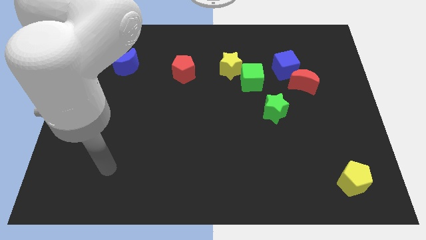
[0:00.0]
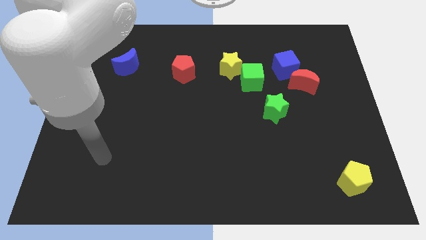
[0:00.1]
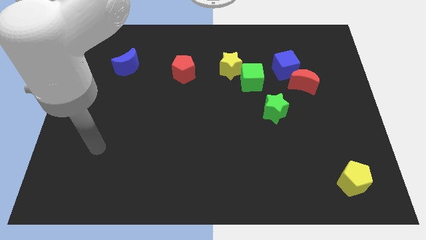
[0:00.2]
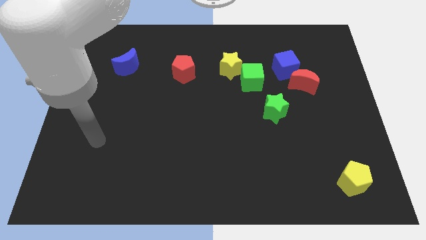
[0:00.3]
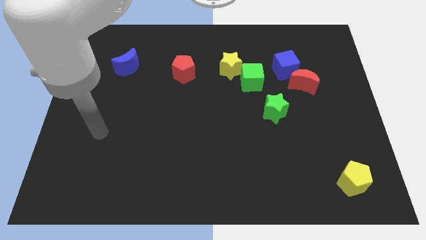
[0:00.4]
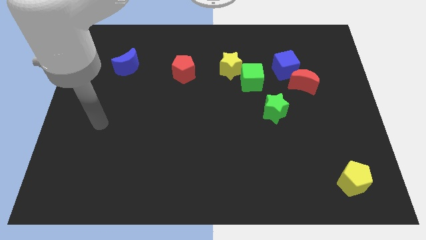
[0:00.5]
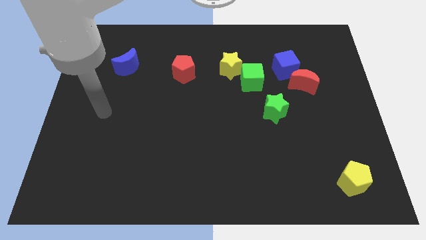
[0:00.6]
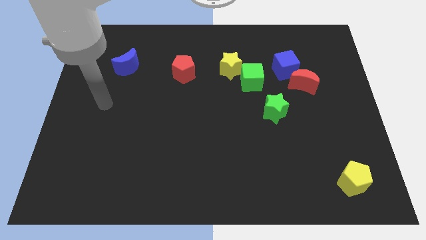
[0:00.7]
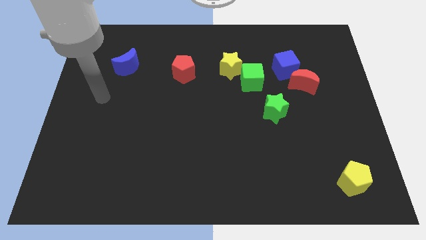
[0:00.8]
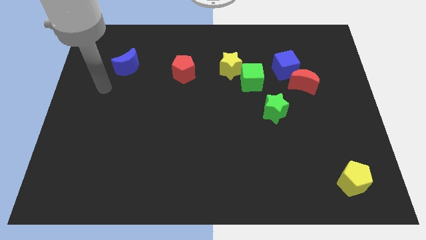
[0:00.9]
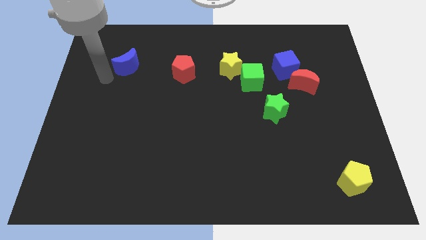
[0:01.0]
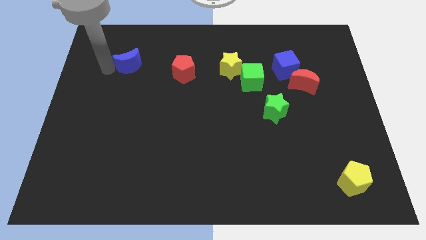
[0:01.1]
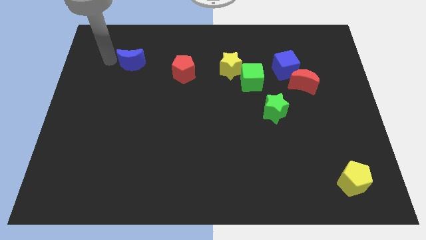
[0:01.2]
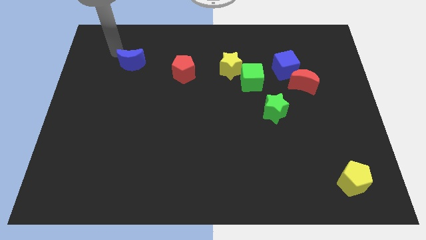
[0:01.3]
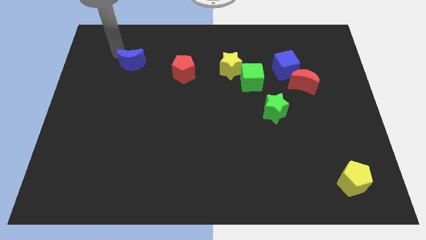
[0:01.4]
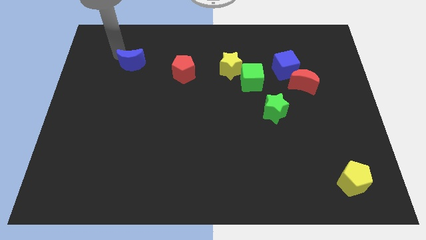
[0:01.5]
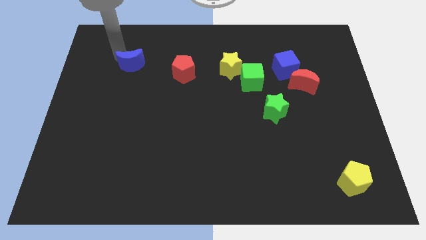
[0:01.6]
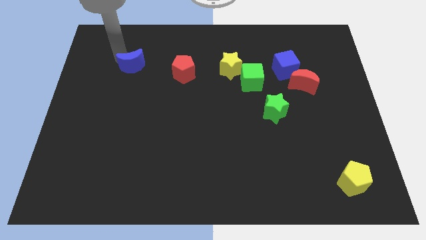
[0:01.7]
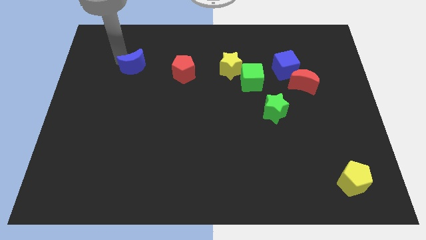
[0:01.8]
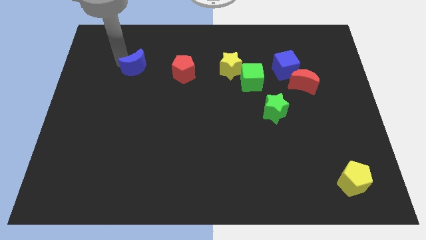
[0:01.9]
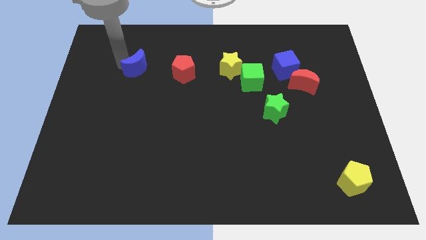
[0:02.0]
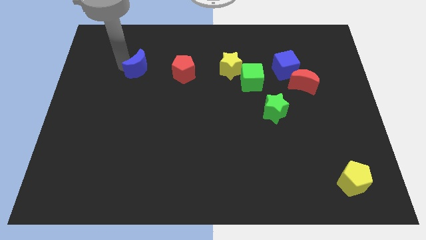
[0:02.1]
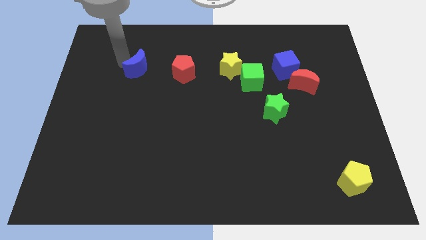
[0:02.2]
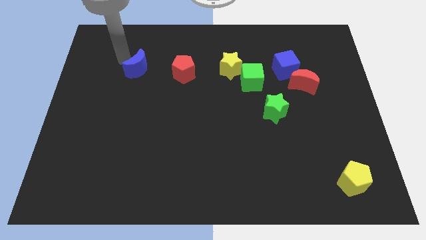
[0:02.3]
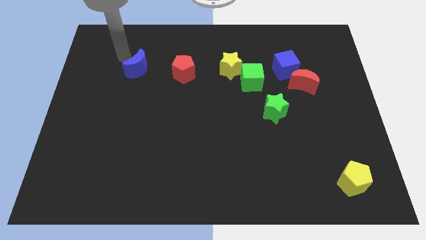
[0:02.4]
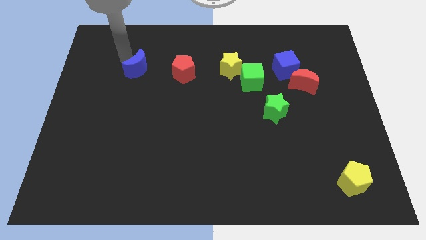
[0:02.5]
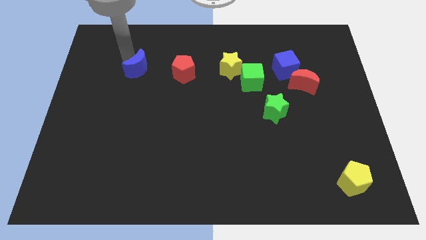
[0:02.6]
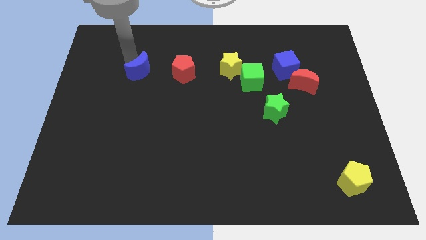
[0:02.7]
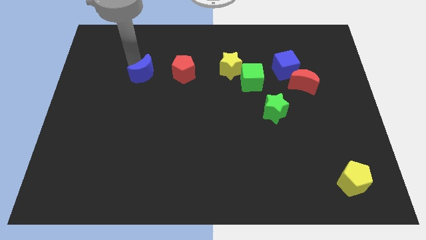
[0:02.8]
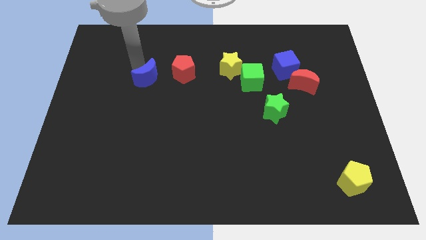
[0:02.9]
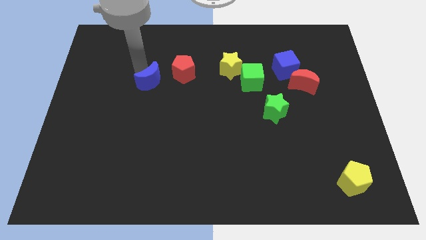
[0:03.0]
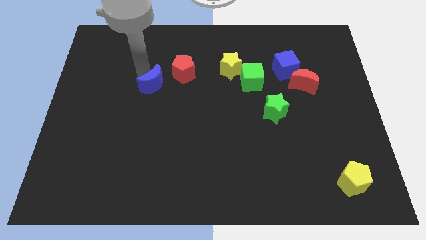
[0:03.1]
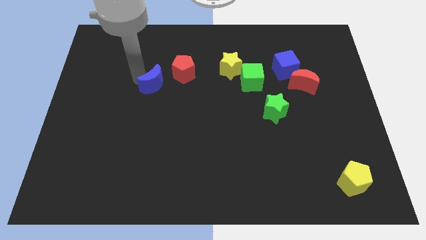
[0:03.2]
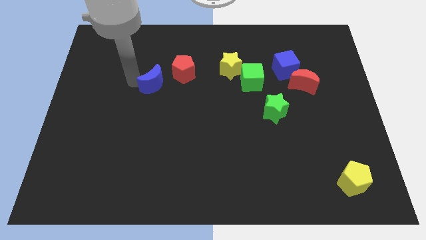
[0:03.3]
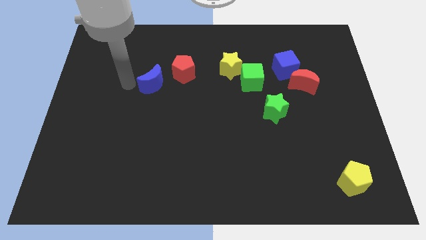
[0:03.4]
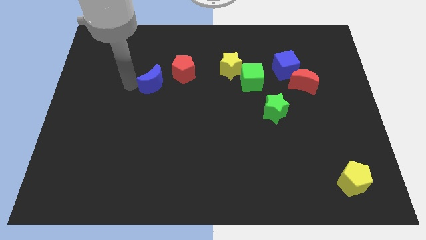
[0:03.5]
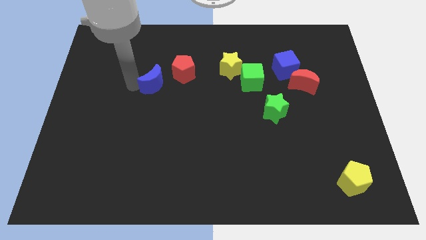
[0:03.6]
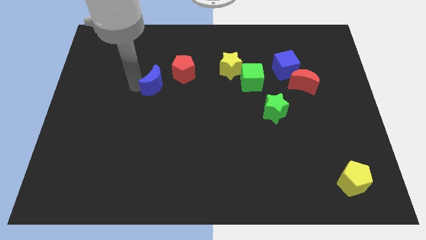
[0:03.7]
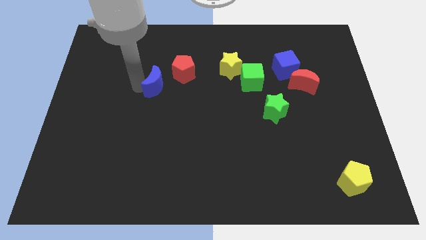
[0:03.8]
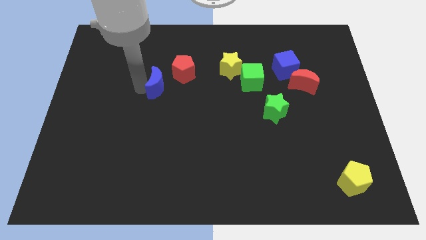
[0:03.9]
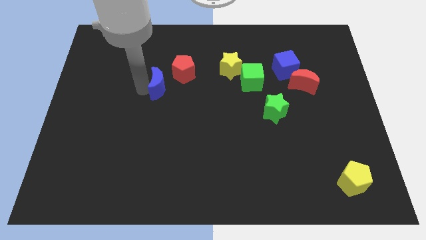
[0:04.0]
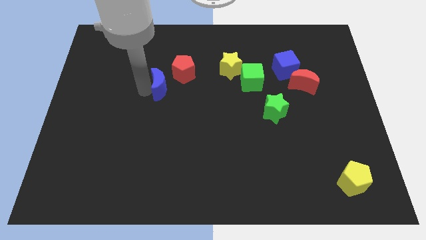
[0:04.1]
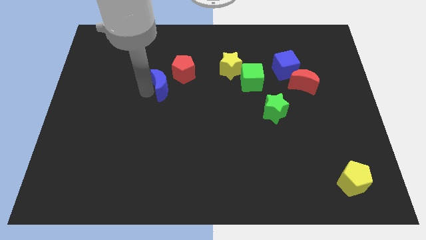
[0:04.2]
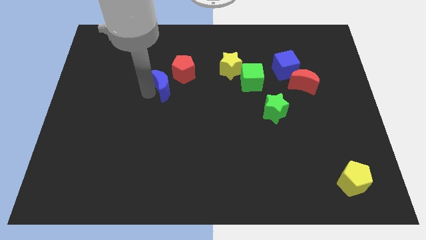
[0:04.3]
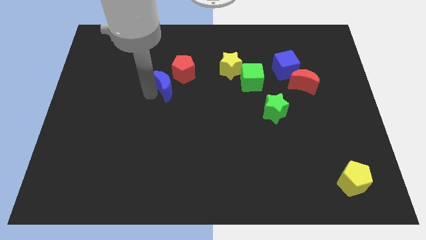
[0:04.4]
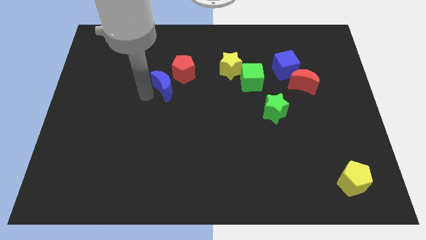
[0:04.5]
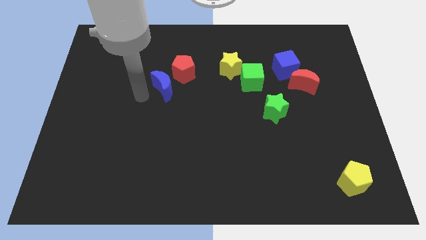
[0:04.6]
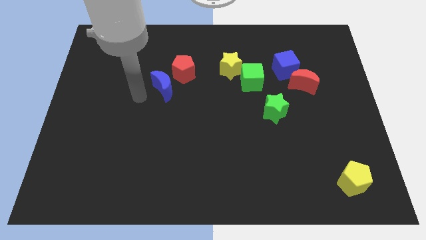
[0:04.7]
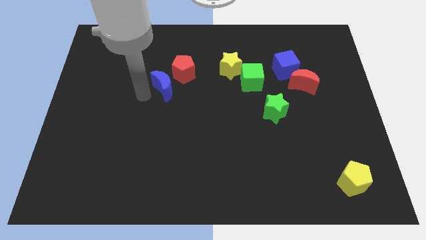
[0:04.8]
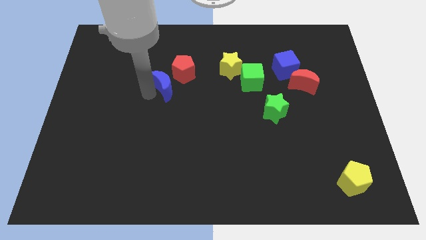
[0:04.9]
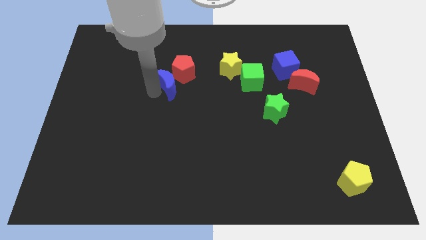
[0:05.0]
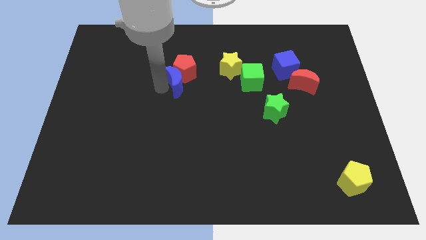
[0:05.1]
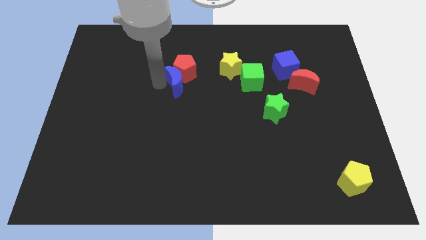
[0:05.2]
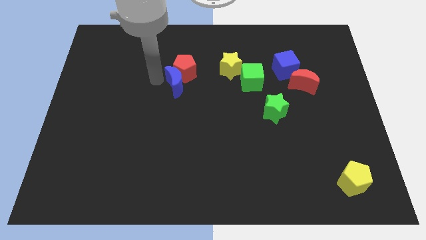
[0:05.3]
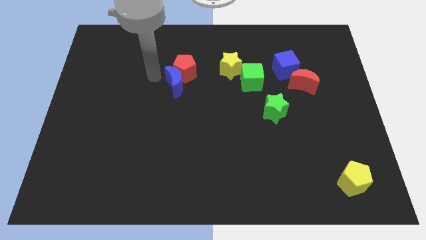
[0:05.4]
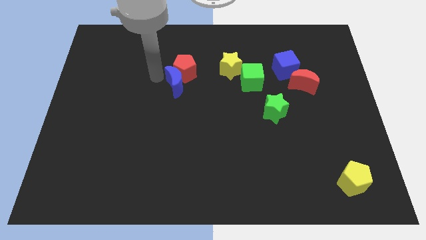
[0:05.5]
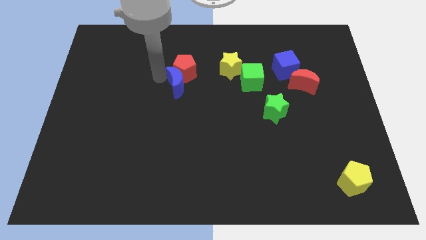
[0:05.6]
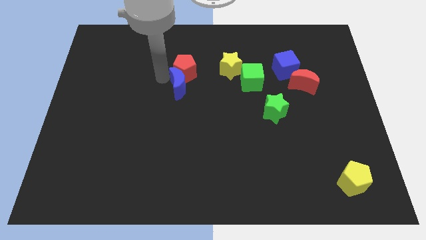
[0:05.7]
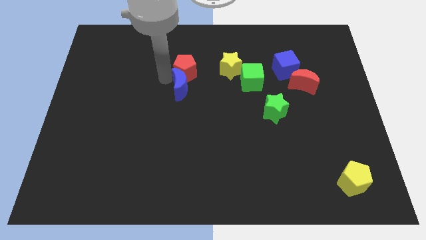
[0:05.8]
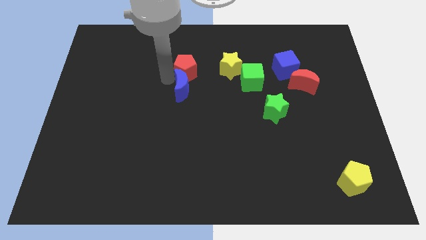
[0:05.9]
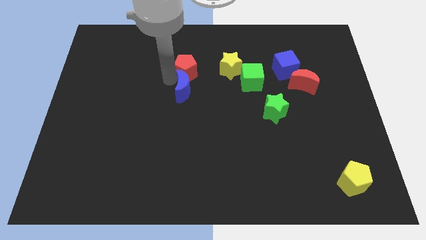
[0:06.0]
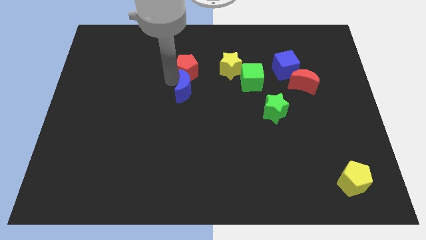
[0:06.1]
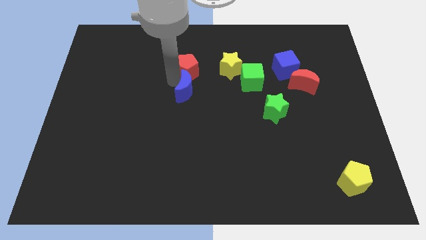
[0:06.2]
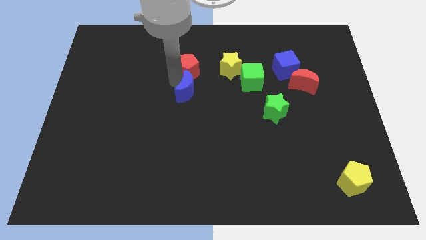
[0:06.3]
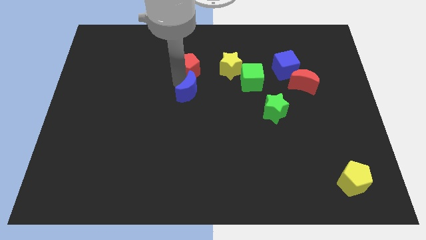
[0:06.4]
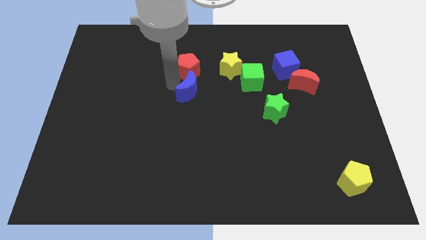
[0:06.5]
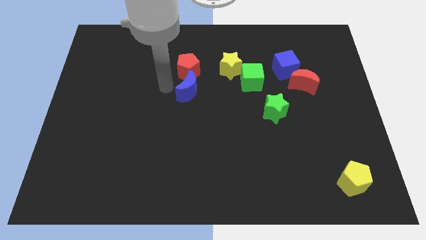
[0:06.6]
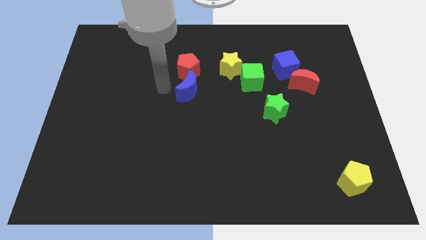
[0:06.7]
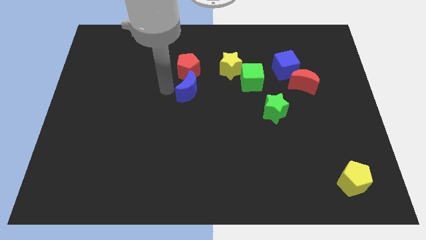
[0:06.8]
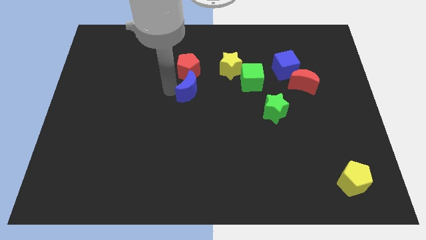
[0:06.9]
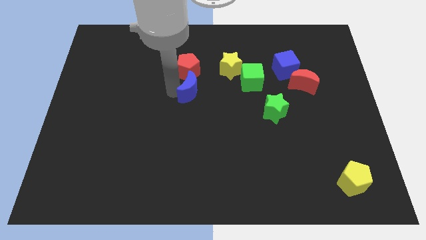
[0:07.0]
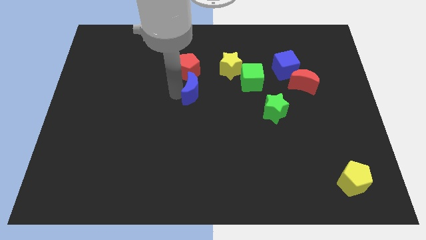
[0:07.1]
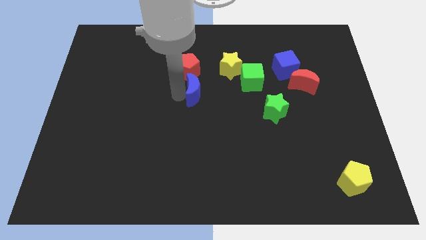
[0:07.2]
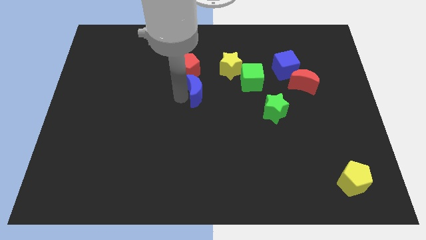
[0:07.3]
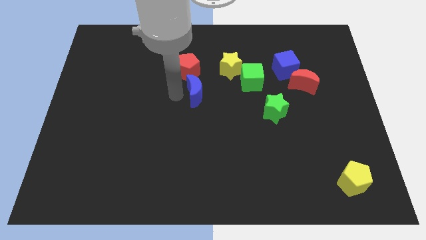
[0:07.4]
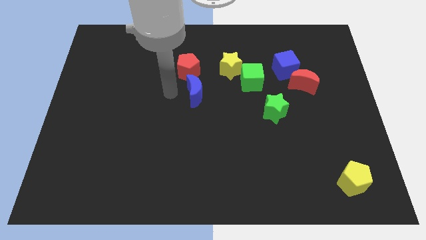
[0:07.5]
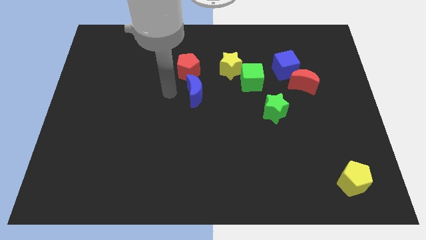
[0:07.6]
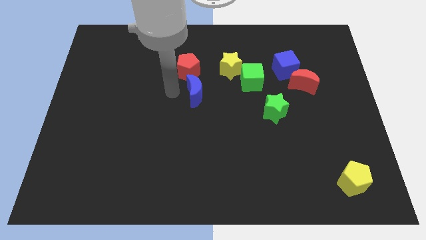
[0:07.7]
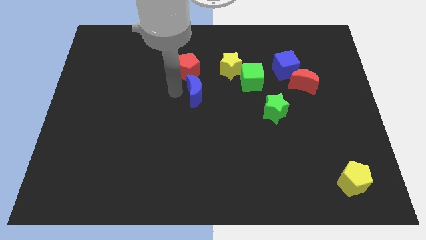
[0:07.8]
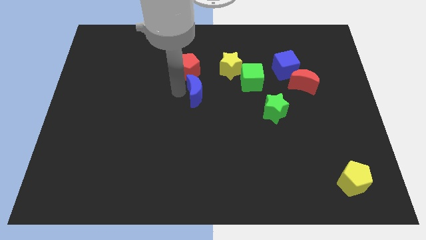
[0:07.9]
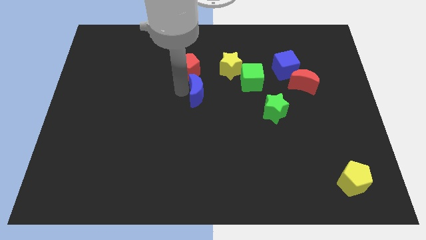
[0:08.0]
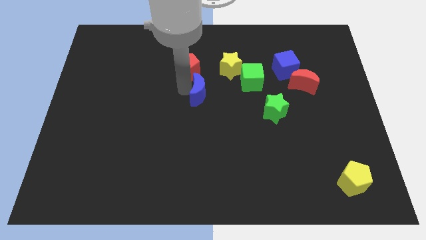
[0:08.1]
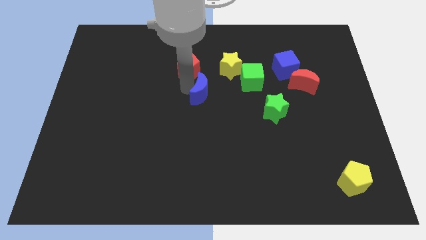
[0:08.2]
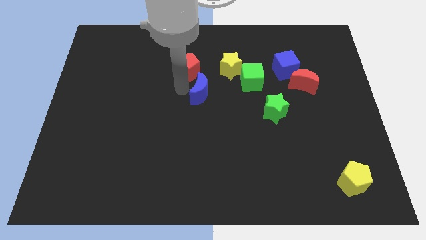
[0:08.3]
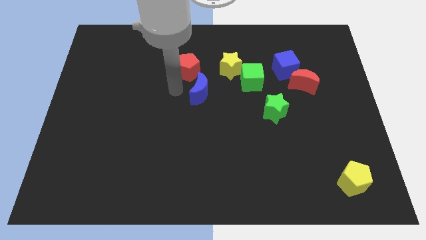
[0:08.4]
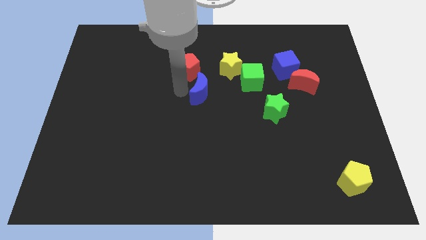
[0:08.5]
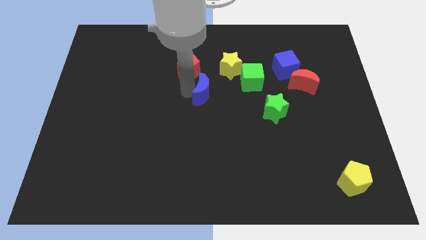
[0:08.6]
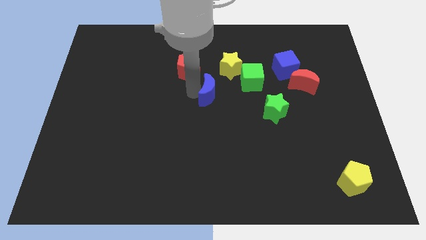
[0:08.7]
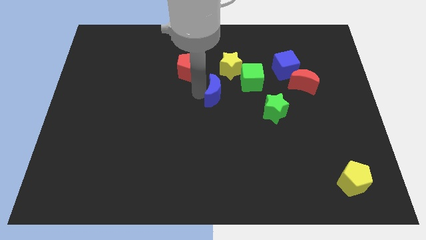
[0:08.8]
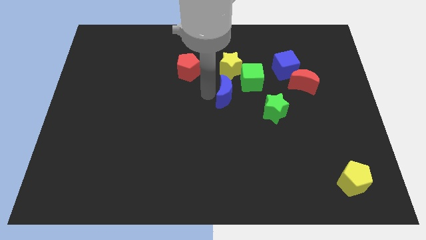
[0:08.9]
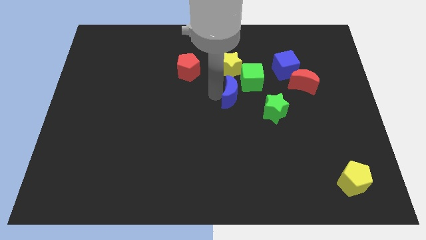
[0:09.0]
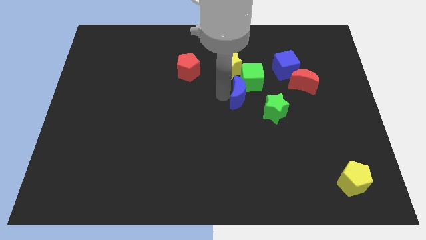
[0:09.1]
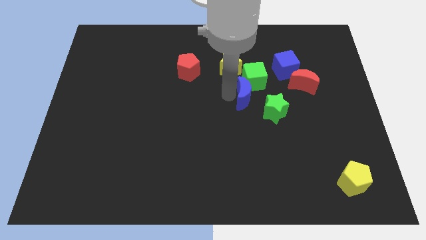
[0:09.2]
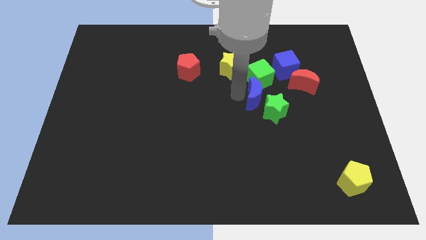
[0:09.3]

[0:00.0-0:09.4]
slide the blue moon to the green star
